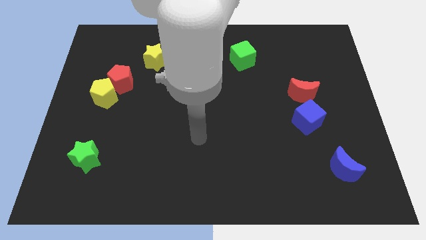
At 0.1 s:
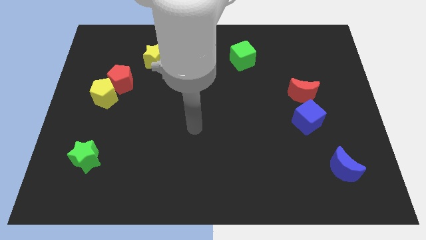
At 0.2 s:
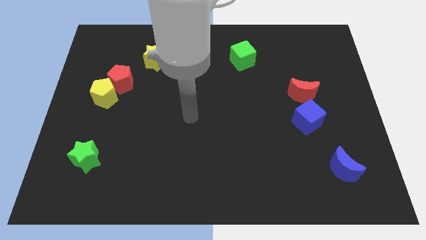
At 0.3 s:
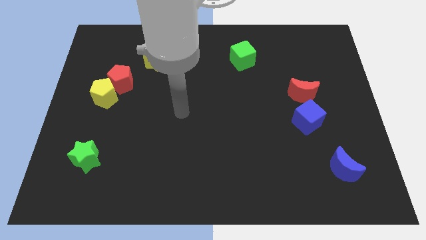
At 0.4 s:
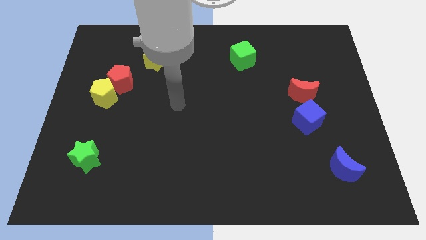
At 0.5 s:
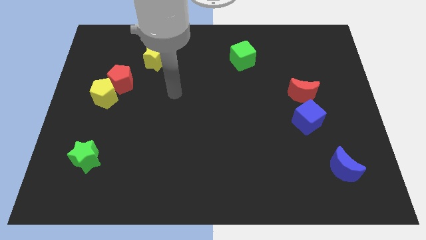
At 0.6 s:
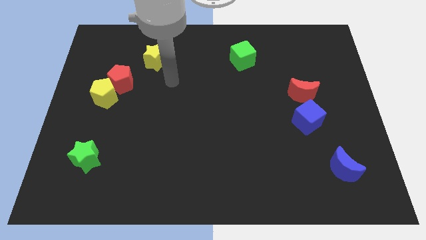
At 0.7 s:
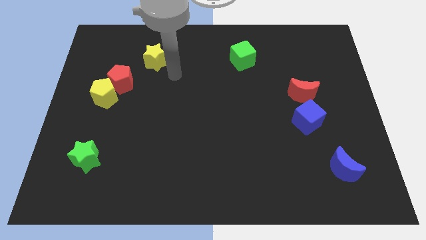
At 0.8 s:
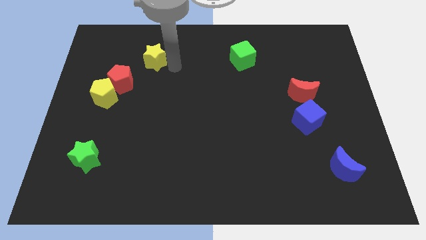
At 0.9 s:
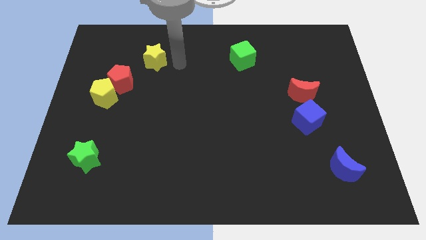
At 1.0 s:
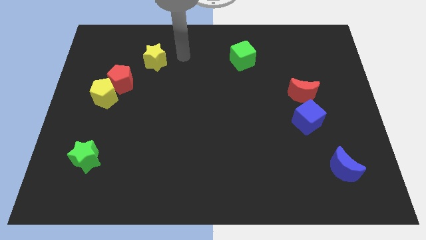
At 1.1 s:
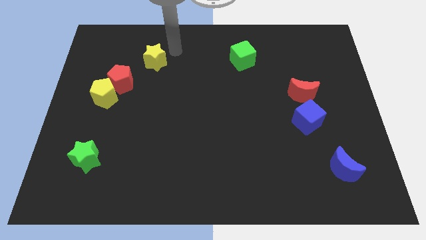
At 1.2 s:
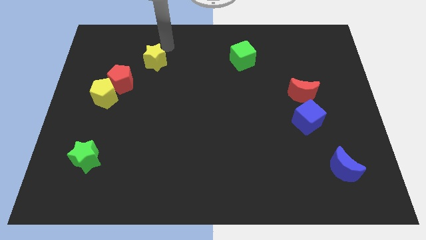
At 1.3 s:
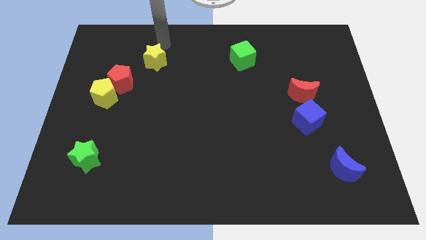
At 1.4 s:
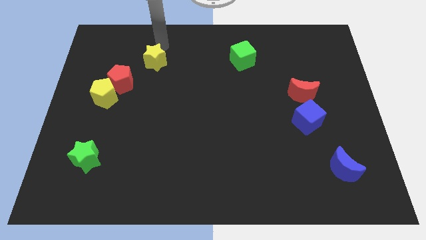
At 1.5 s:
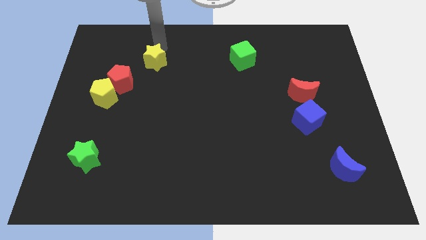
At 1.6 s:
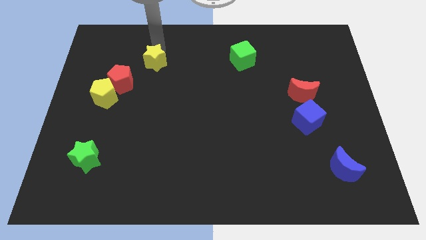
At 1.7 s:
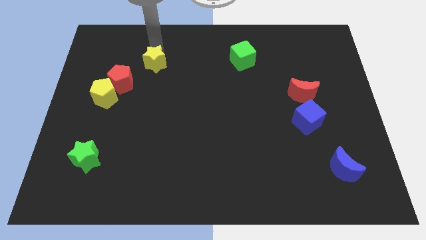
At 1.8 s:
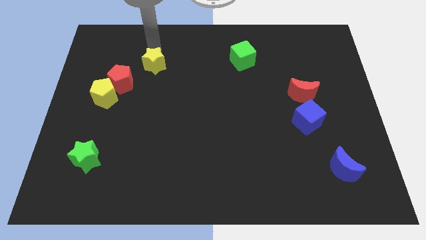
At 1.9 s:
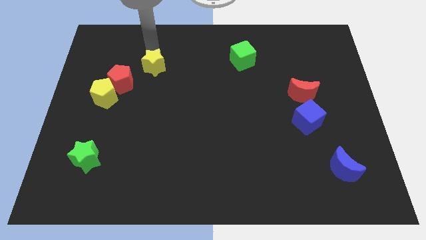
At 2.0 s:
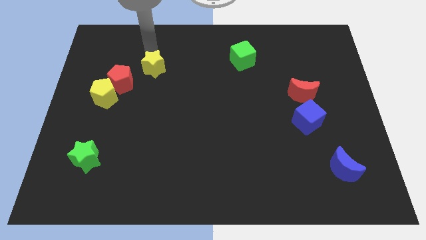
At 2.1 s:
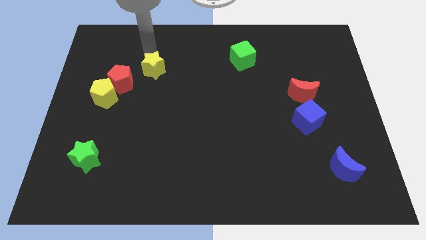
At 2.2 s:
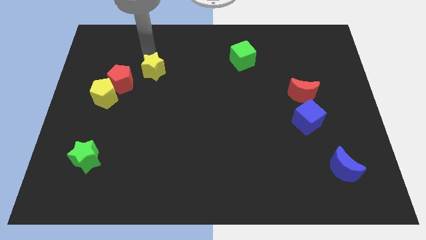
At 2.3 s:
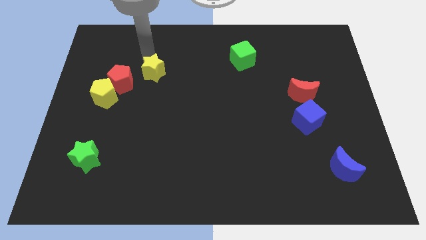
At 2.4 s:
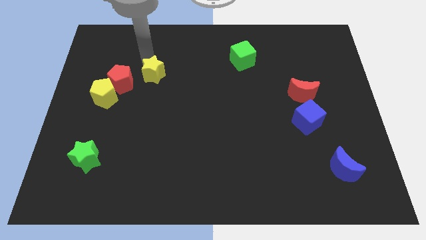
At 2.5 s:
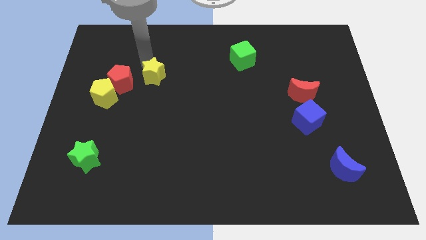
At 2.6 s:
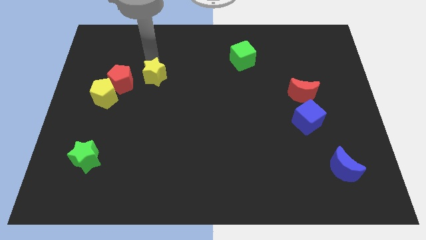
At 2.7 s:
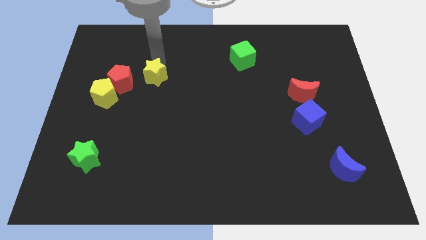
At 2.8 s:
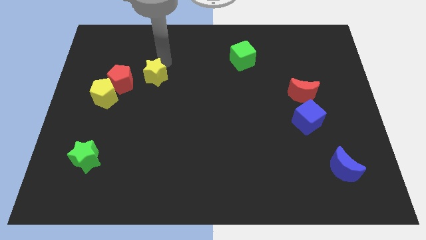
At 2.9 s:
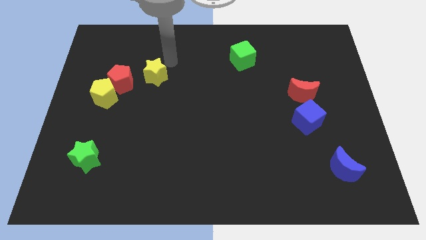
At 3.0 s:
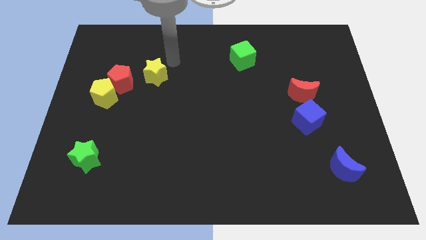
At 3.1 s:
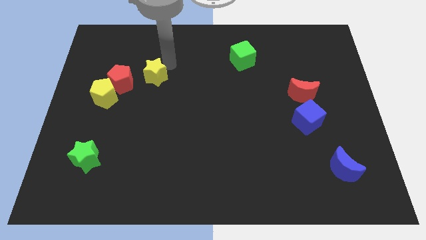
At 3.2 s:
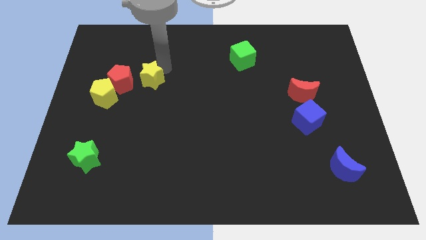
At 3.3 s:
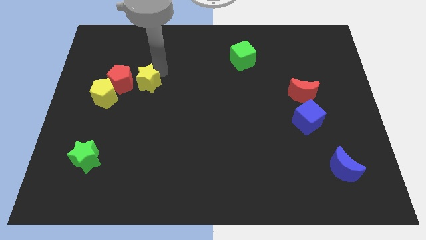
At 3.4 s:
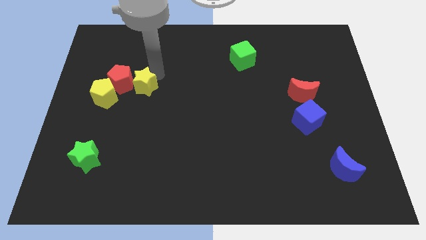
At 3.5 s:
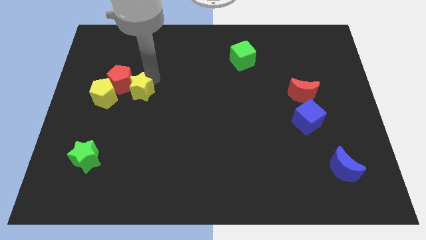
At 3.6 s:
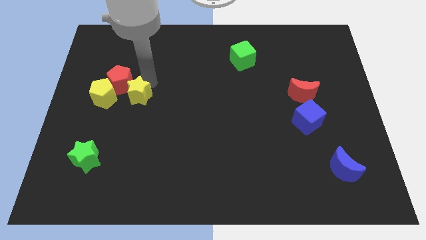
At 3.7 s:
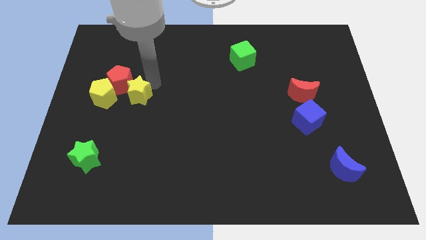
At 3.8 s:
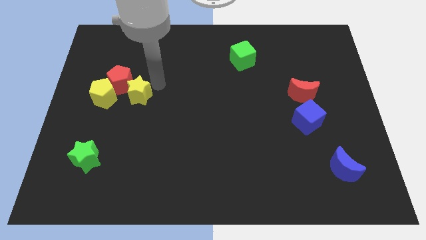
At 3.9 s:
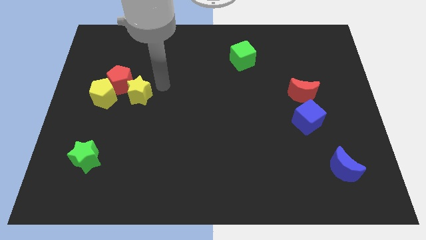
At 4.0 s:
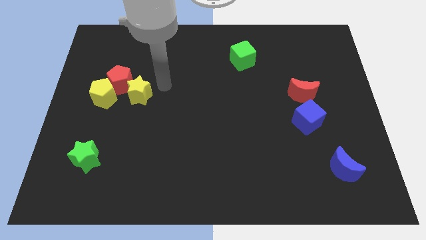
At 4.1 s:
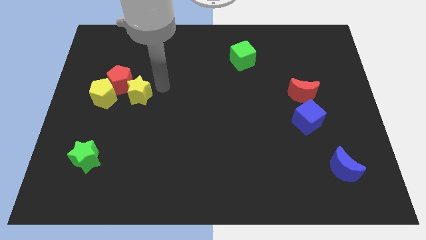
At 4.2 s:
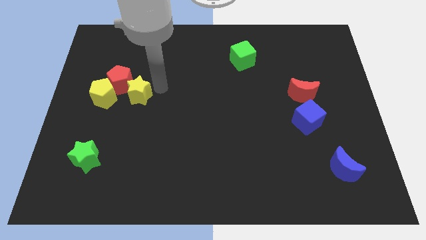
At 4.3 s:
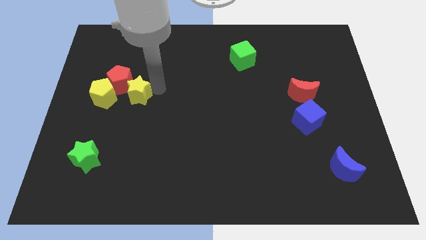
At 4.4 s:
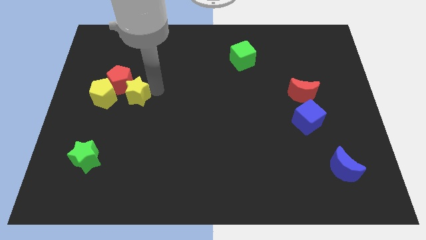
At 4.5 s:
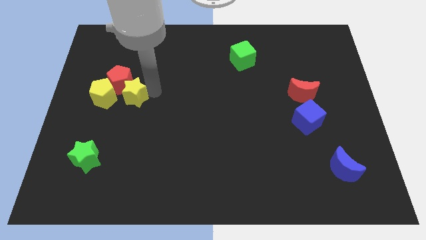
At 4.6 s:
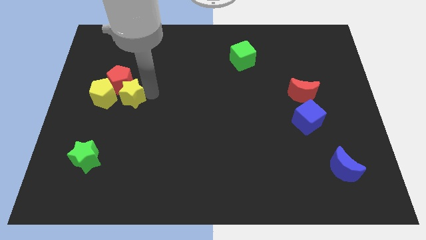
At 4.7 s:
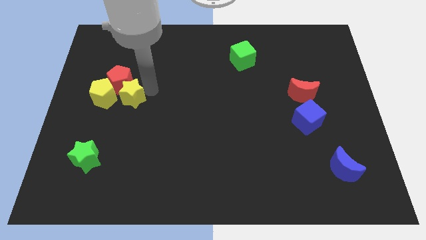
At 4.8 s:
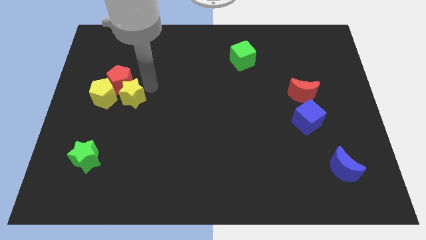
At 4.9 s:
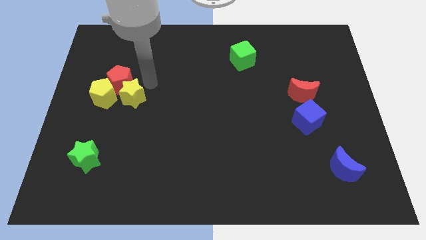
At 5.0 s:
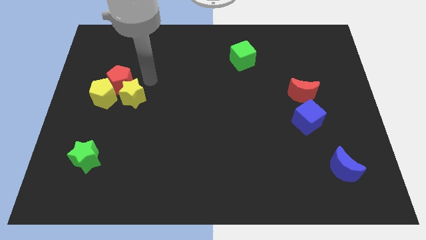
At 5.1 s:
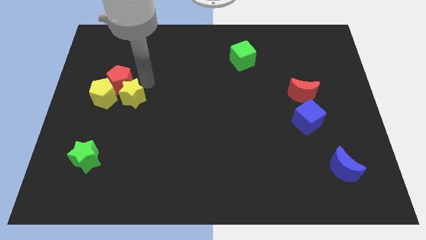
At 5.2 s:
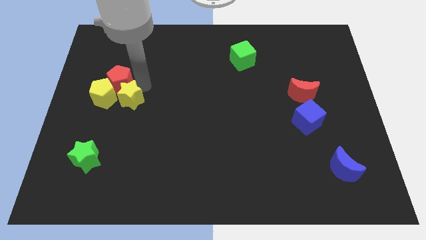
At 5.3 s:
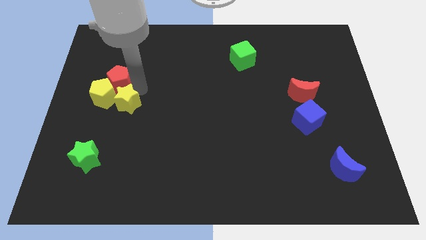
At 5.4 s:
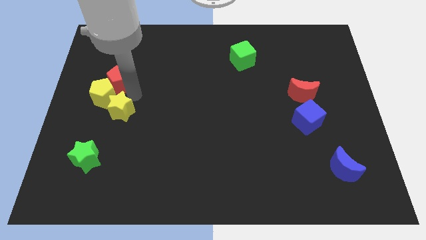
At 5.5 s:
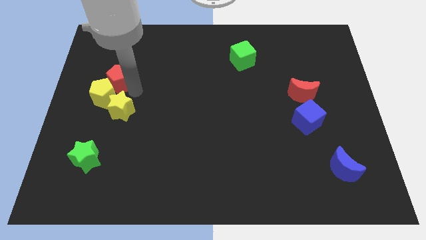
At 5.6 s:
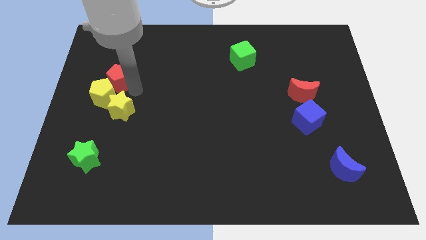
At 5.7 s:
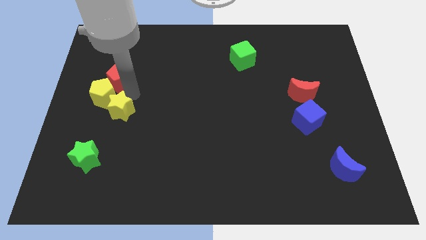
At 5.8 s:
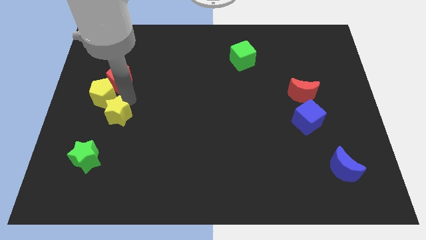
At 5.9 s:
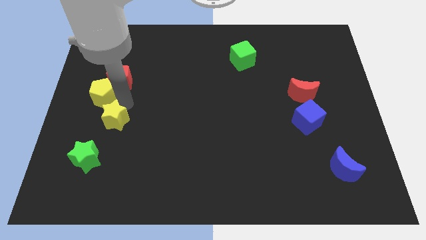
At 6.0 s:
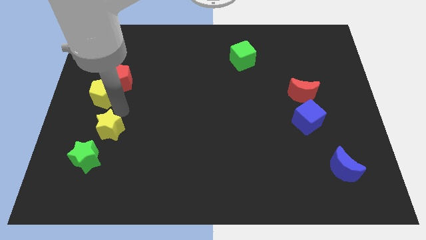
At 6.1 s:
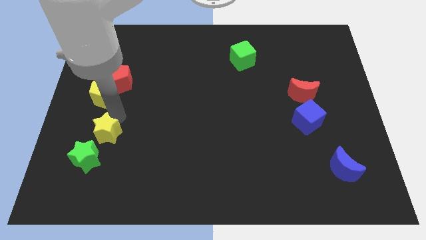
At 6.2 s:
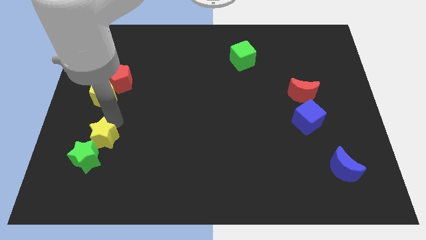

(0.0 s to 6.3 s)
put the yellow star to the green star

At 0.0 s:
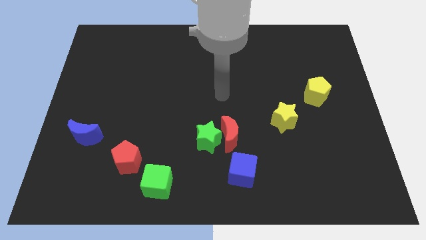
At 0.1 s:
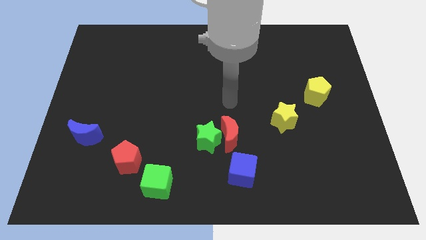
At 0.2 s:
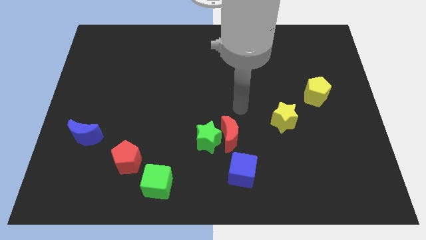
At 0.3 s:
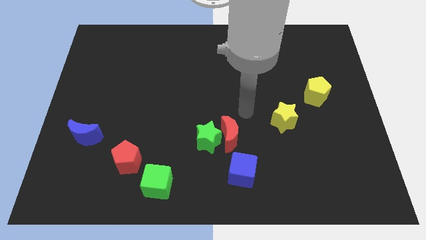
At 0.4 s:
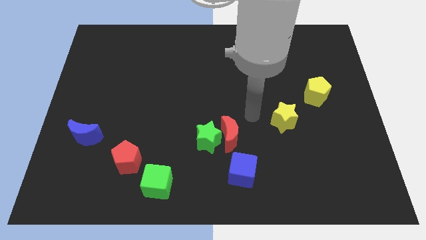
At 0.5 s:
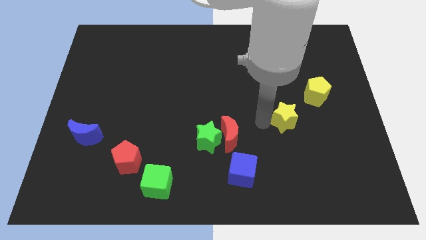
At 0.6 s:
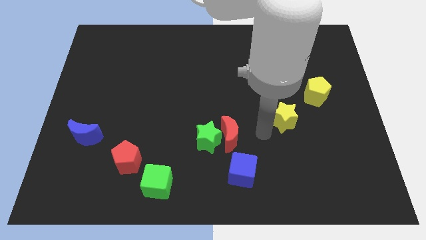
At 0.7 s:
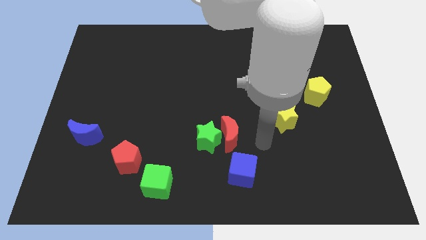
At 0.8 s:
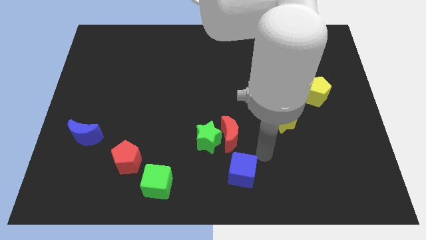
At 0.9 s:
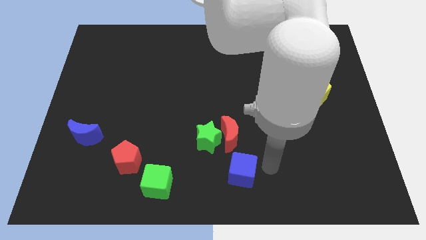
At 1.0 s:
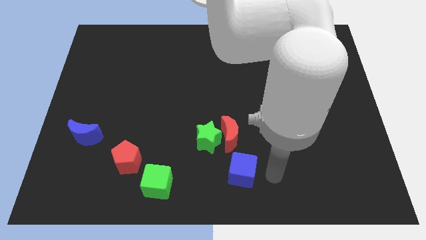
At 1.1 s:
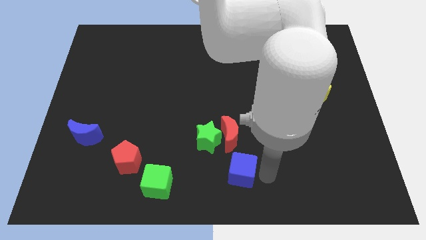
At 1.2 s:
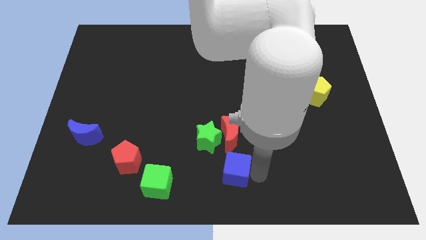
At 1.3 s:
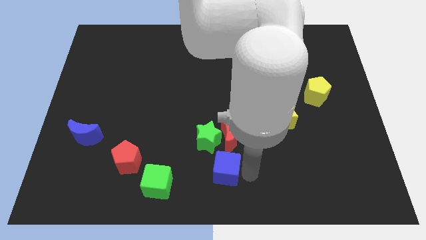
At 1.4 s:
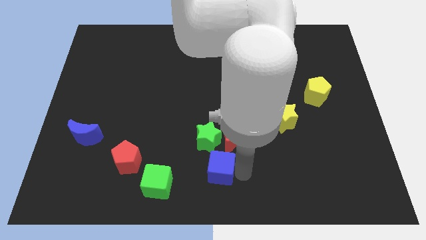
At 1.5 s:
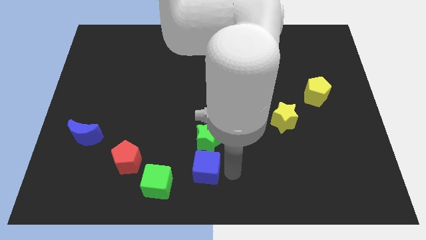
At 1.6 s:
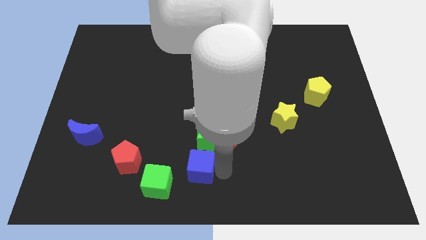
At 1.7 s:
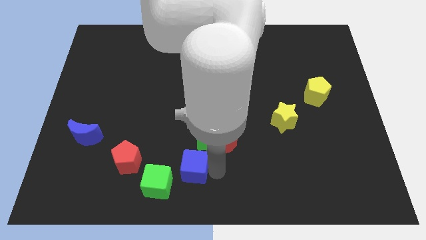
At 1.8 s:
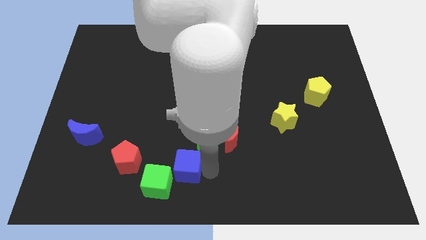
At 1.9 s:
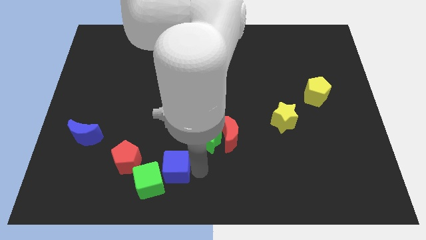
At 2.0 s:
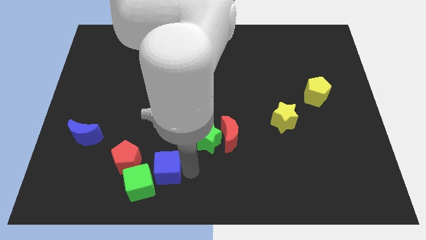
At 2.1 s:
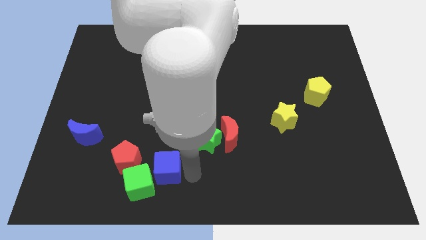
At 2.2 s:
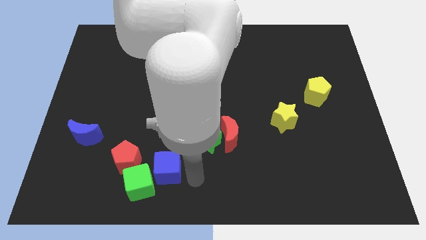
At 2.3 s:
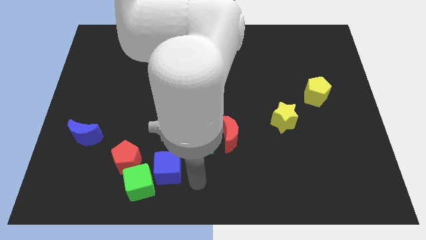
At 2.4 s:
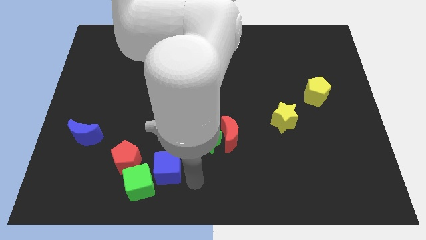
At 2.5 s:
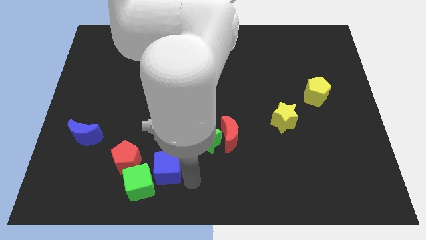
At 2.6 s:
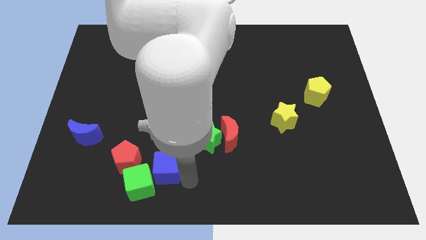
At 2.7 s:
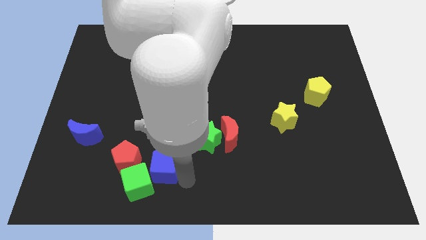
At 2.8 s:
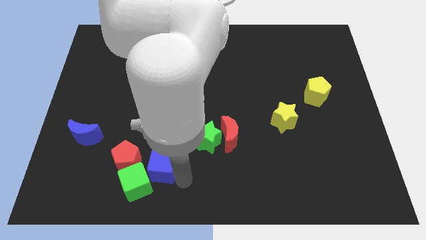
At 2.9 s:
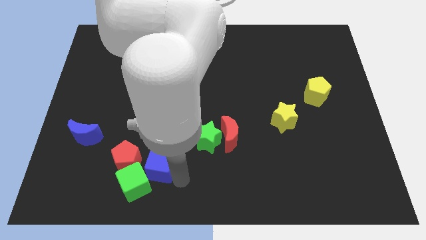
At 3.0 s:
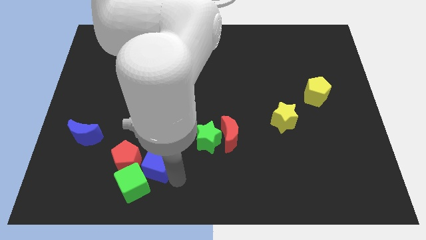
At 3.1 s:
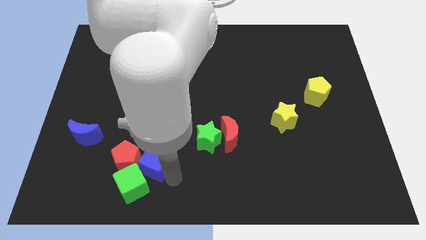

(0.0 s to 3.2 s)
put the blue cube towards the red pentagon
